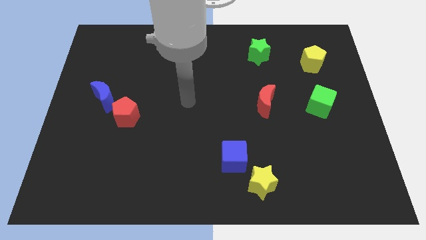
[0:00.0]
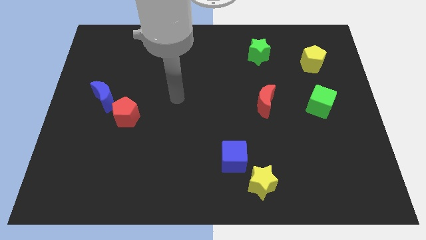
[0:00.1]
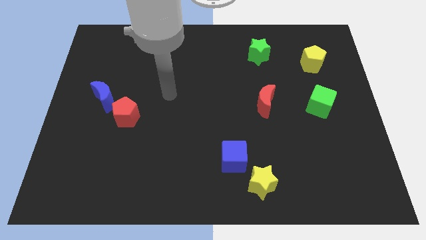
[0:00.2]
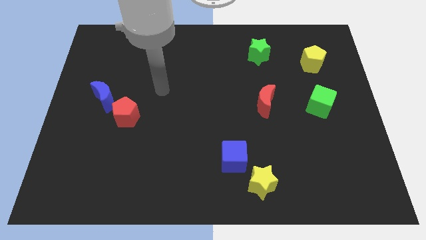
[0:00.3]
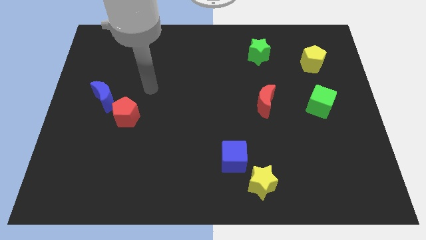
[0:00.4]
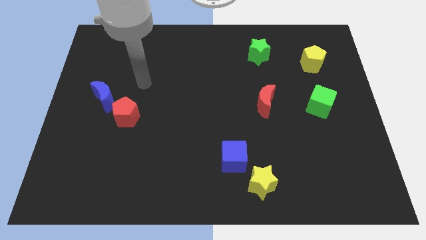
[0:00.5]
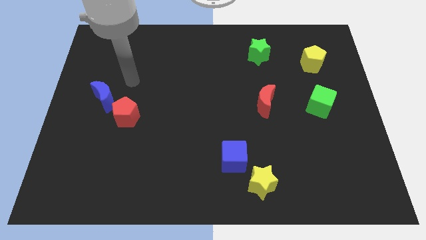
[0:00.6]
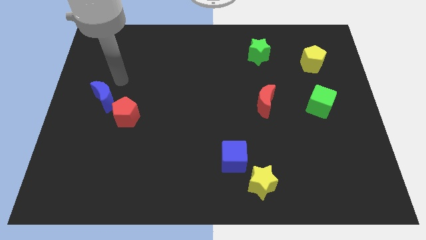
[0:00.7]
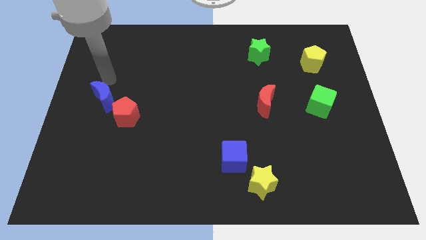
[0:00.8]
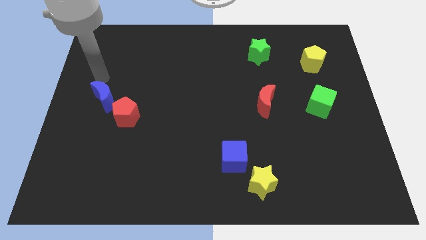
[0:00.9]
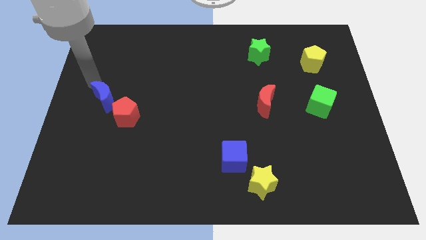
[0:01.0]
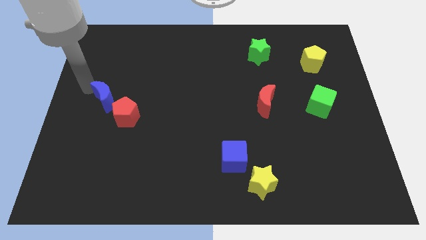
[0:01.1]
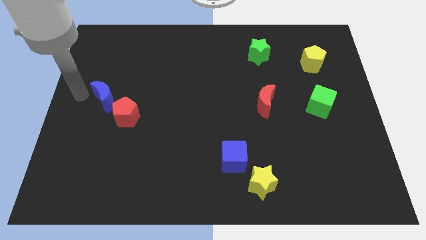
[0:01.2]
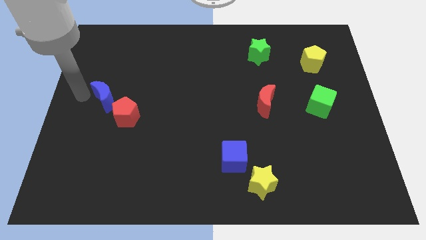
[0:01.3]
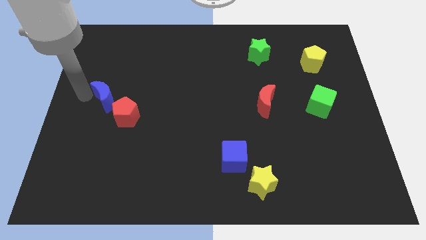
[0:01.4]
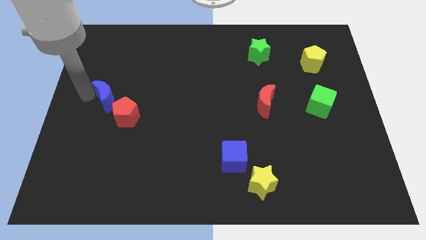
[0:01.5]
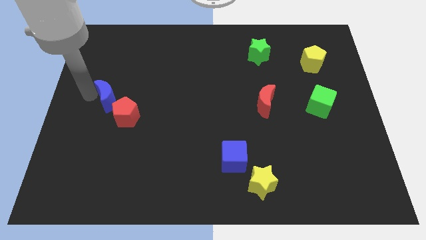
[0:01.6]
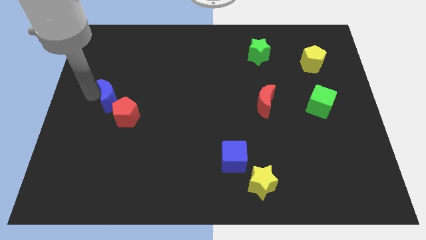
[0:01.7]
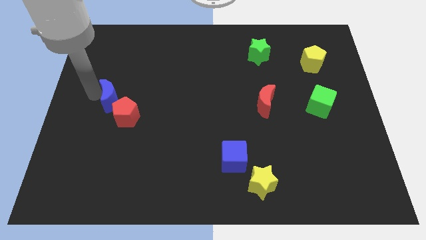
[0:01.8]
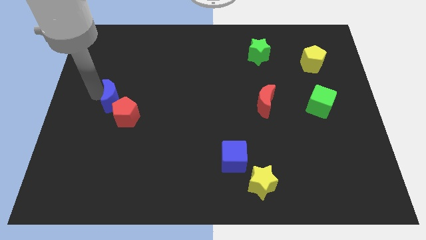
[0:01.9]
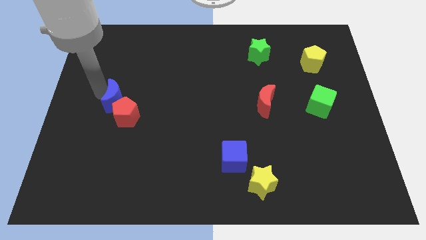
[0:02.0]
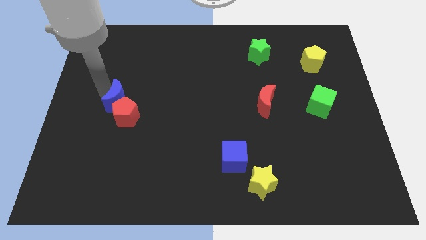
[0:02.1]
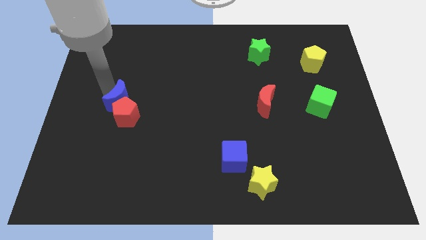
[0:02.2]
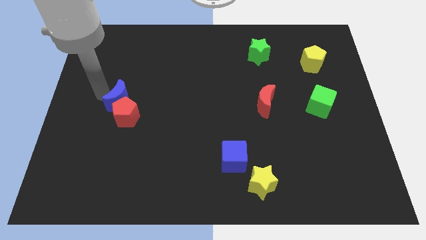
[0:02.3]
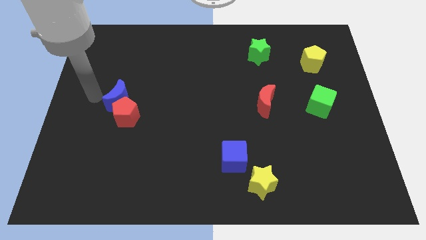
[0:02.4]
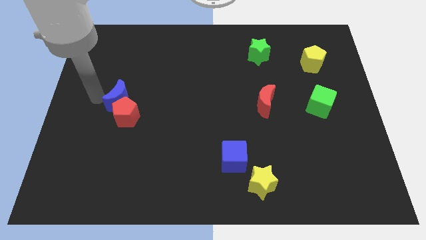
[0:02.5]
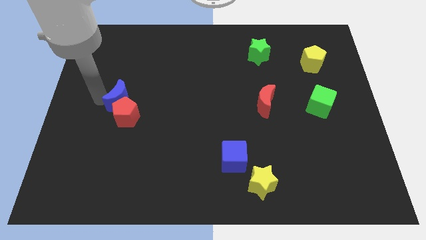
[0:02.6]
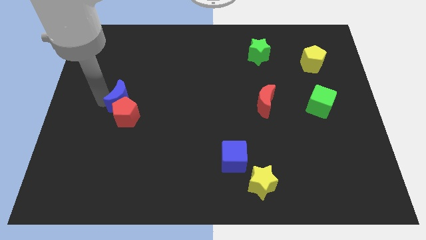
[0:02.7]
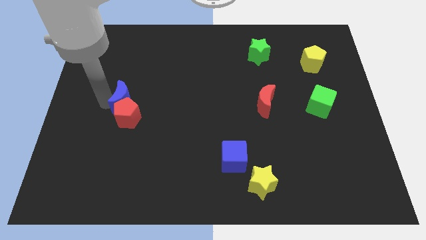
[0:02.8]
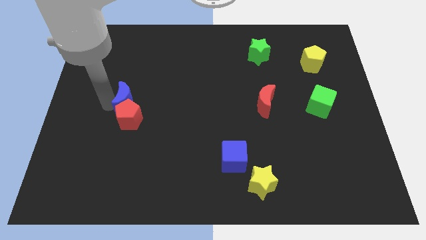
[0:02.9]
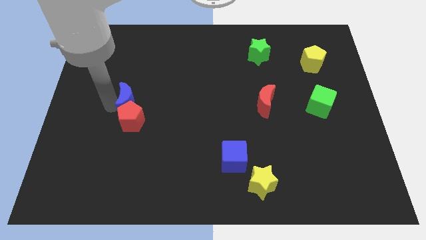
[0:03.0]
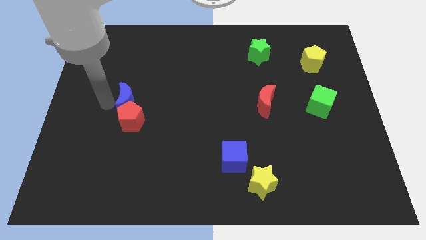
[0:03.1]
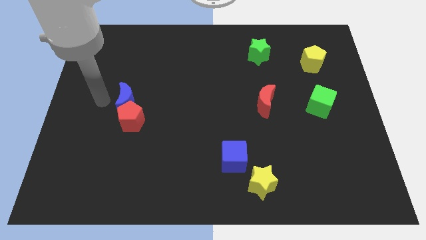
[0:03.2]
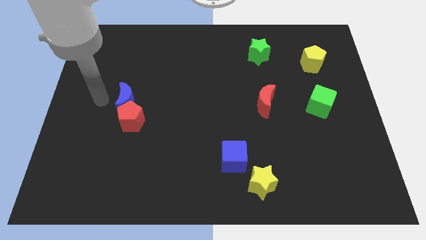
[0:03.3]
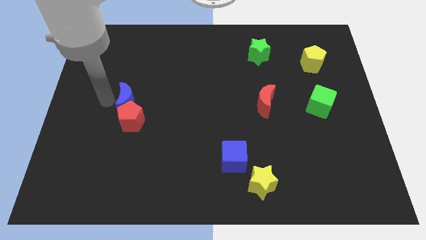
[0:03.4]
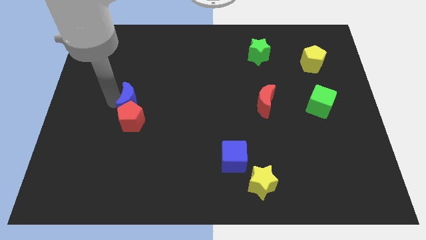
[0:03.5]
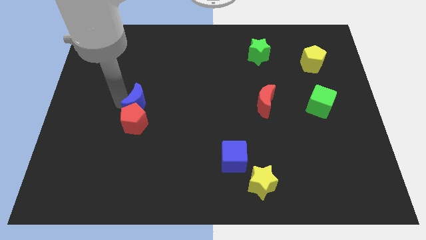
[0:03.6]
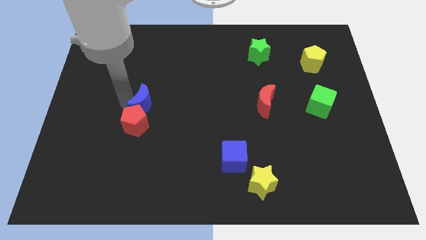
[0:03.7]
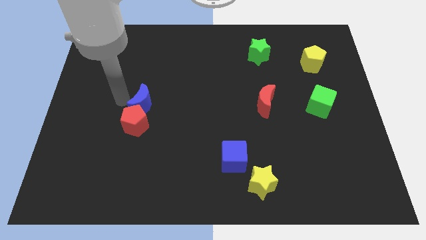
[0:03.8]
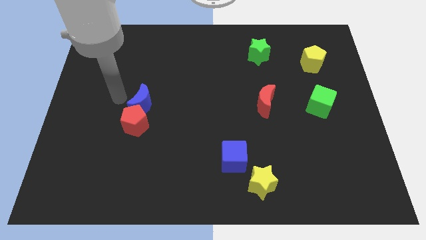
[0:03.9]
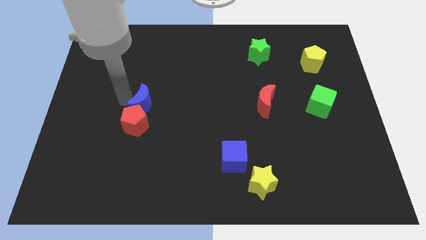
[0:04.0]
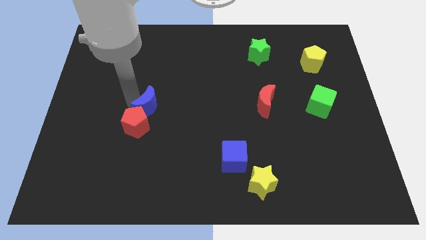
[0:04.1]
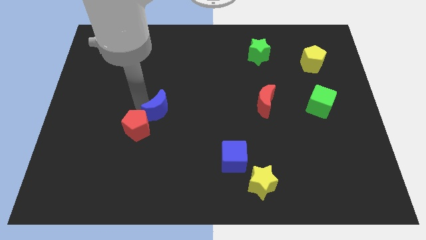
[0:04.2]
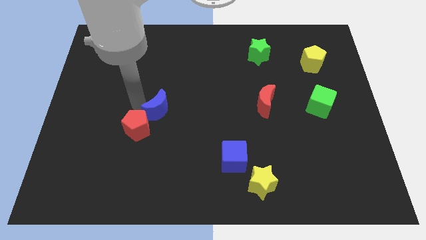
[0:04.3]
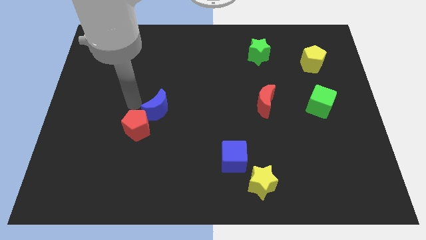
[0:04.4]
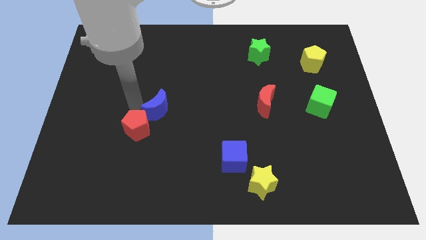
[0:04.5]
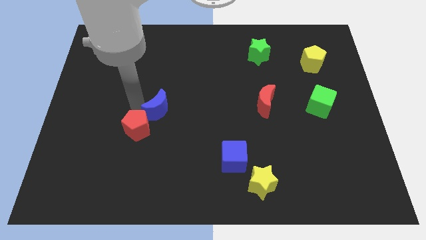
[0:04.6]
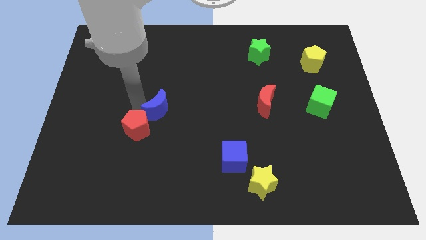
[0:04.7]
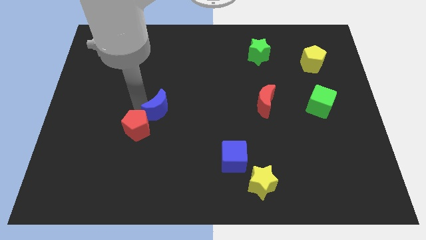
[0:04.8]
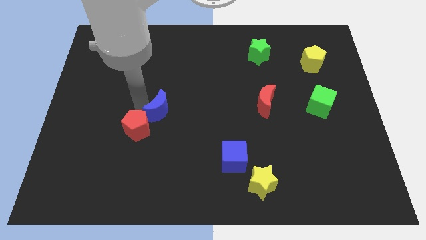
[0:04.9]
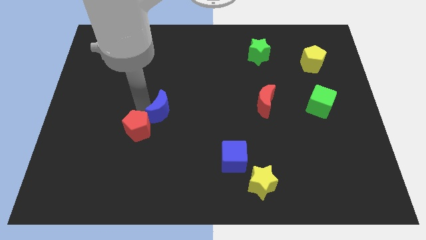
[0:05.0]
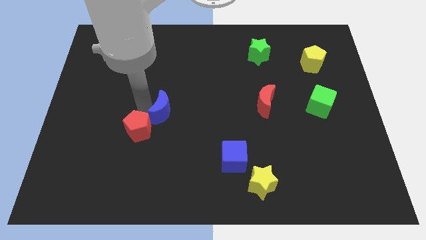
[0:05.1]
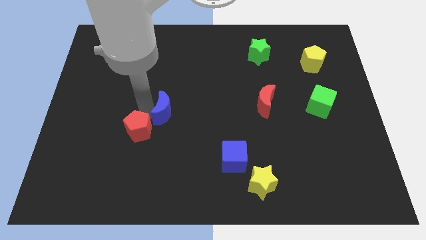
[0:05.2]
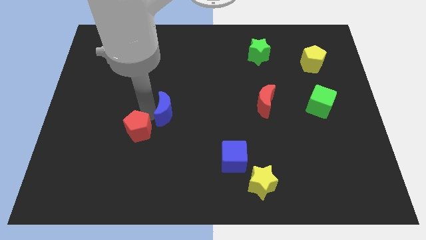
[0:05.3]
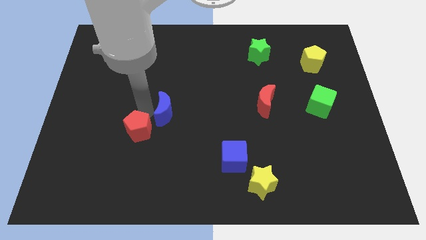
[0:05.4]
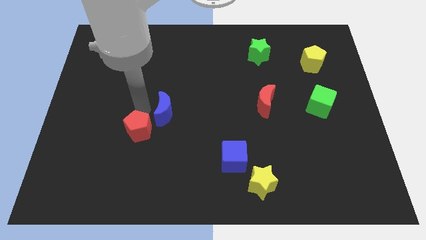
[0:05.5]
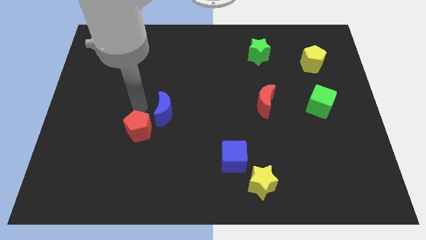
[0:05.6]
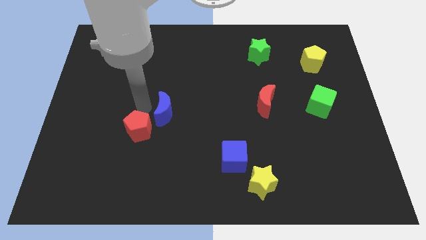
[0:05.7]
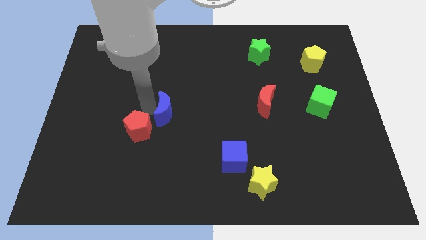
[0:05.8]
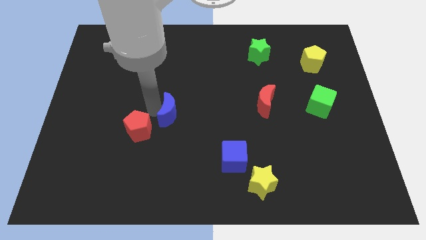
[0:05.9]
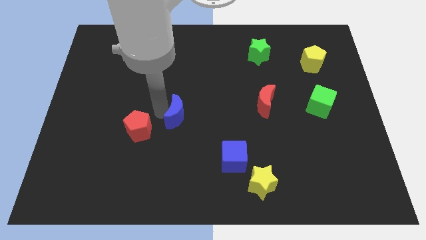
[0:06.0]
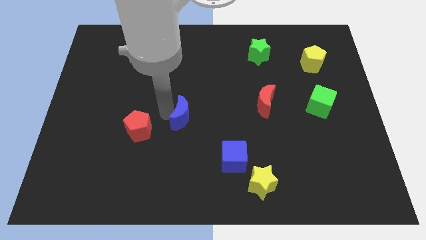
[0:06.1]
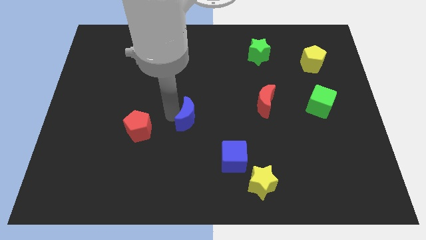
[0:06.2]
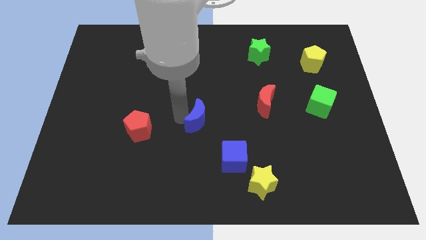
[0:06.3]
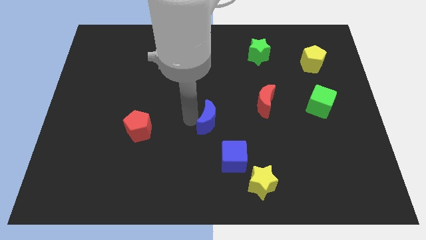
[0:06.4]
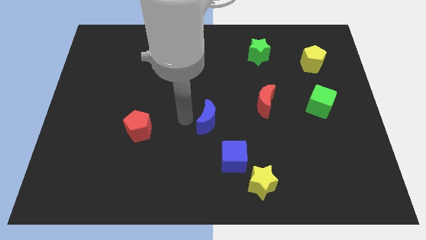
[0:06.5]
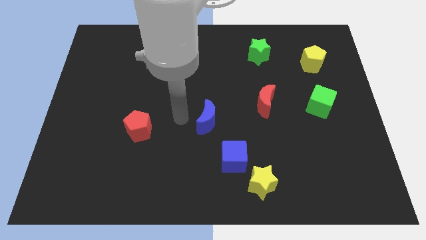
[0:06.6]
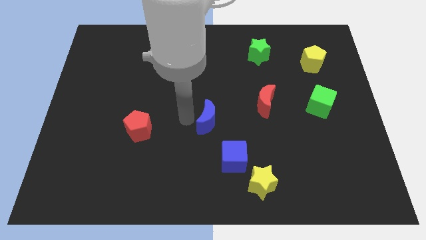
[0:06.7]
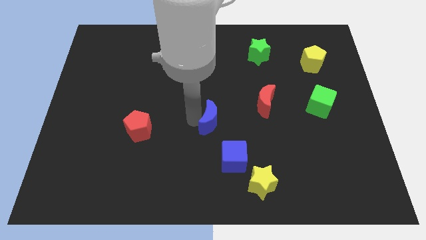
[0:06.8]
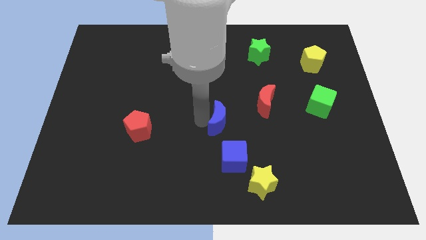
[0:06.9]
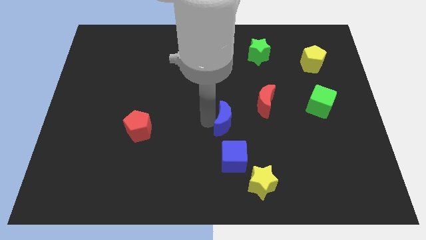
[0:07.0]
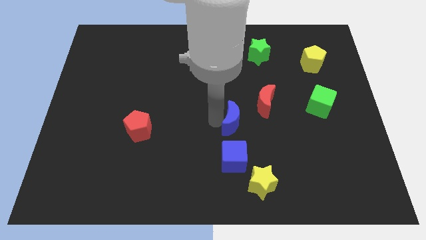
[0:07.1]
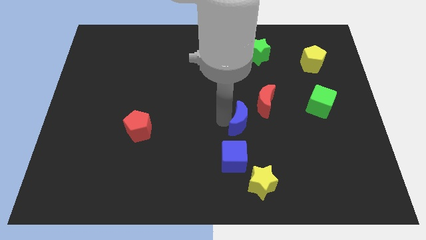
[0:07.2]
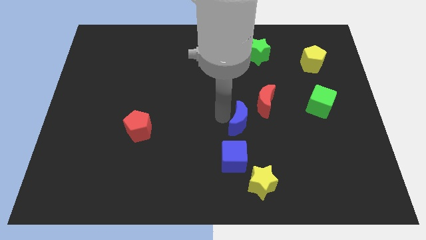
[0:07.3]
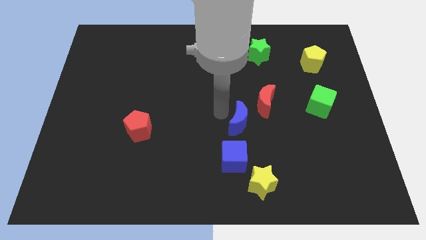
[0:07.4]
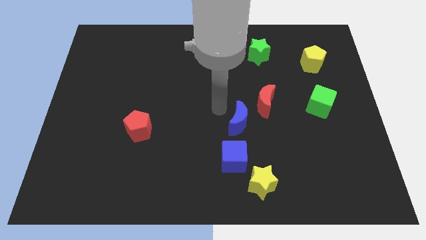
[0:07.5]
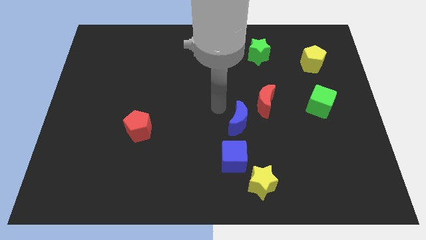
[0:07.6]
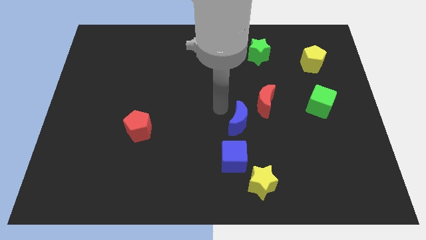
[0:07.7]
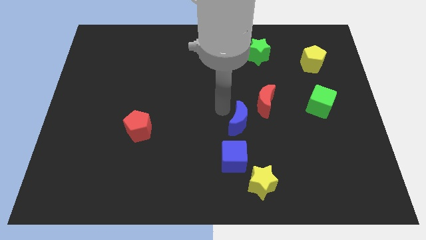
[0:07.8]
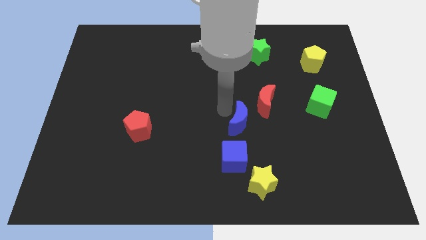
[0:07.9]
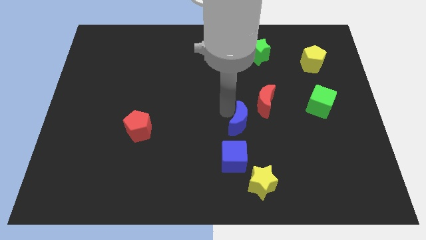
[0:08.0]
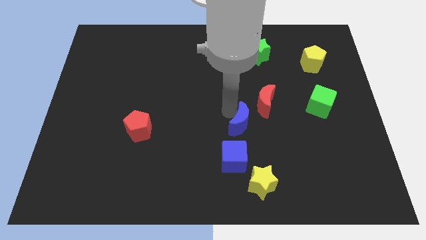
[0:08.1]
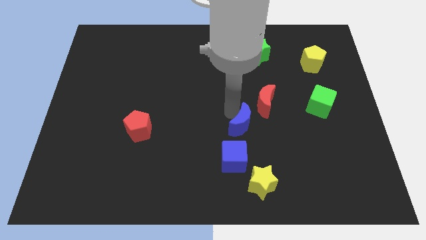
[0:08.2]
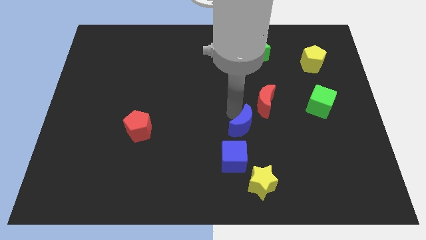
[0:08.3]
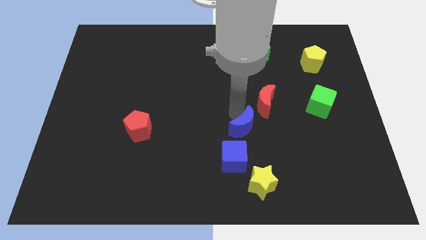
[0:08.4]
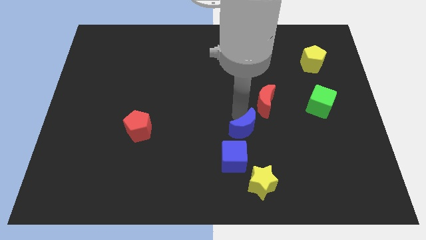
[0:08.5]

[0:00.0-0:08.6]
slide the blue moon to the bottom side of the red moon
